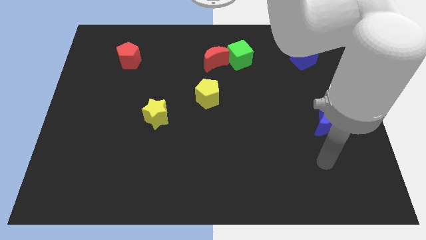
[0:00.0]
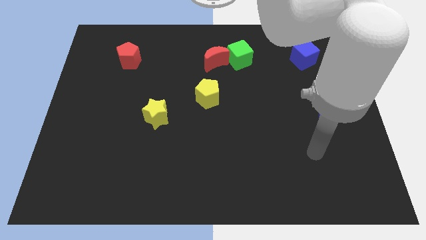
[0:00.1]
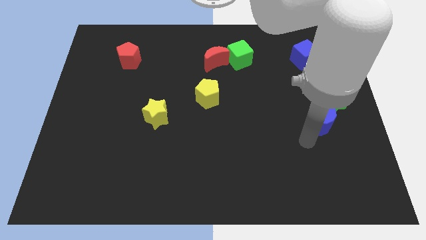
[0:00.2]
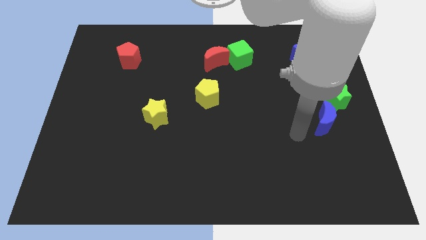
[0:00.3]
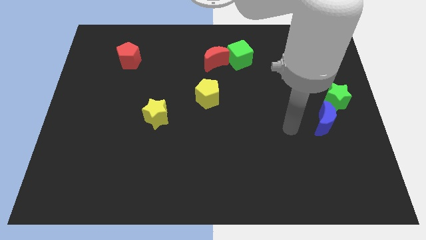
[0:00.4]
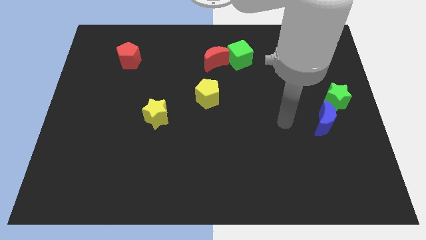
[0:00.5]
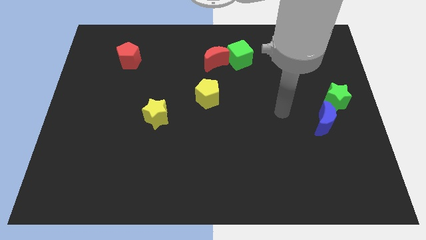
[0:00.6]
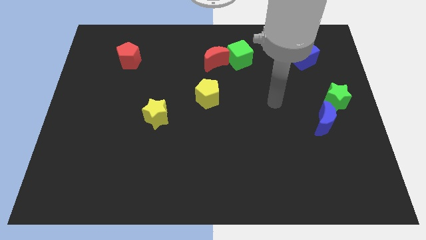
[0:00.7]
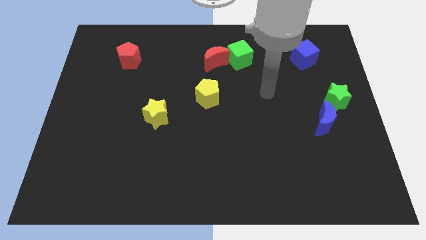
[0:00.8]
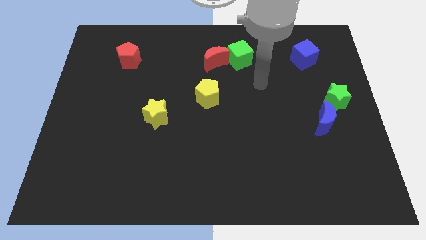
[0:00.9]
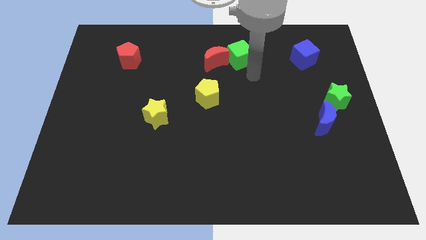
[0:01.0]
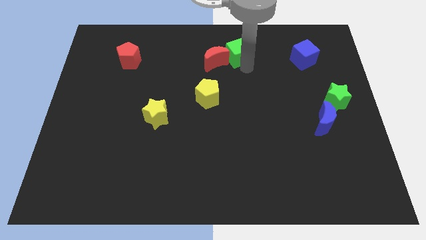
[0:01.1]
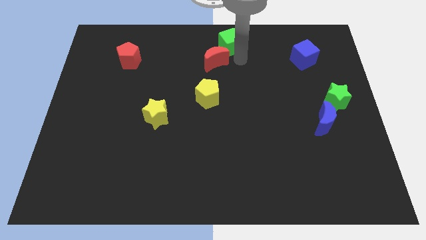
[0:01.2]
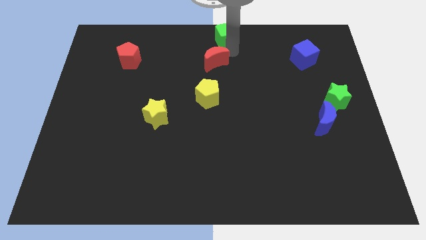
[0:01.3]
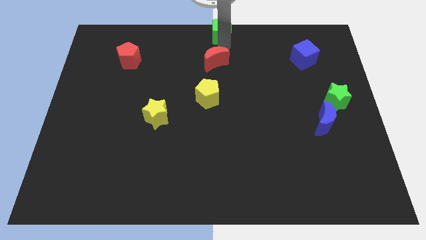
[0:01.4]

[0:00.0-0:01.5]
separate the red moon from the green cube

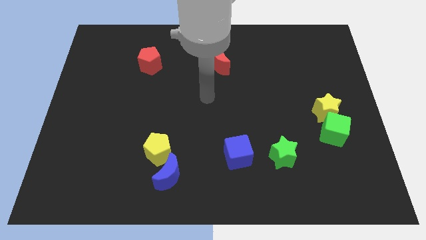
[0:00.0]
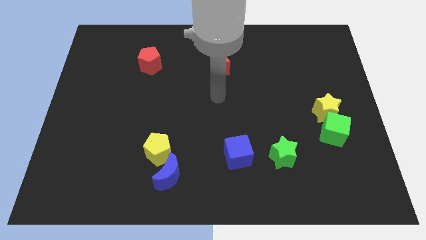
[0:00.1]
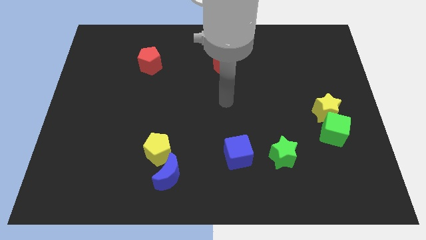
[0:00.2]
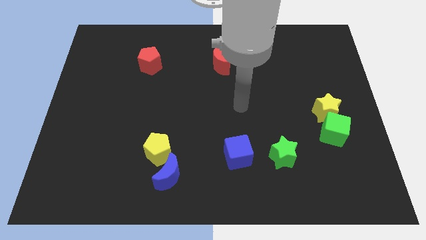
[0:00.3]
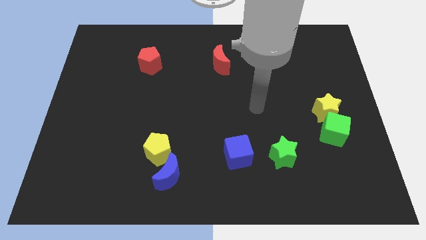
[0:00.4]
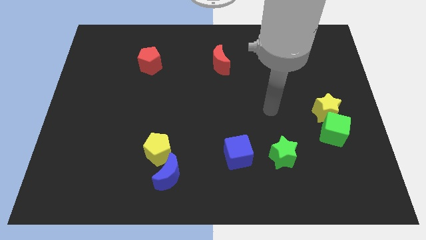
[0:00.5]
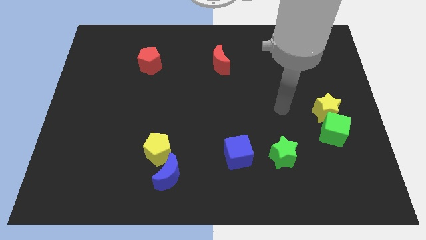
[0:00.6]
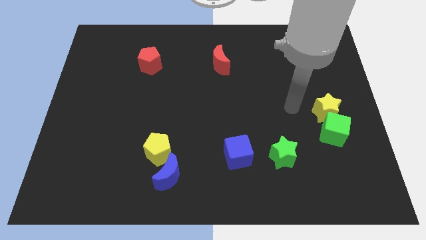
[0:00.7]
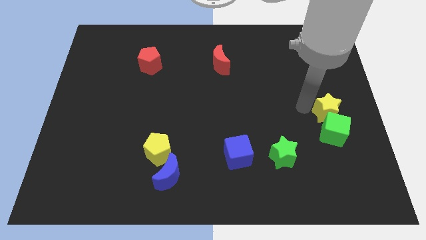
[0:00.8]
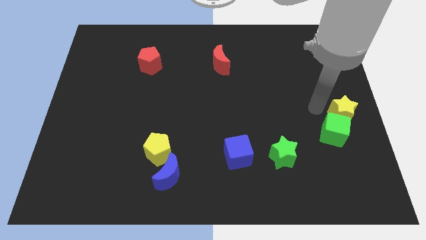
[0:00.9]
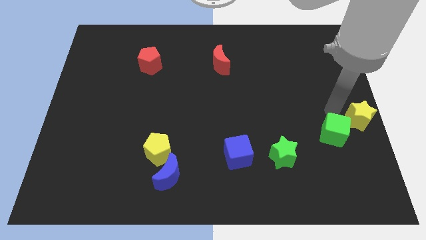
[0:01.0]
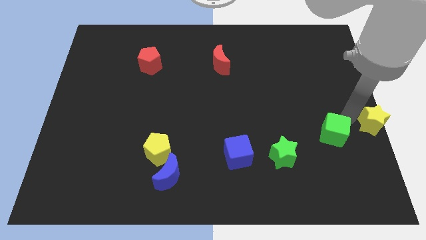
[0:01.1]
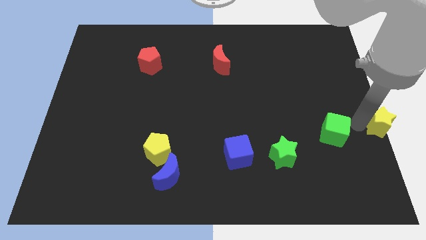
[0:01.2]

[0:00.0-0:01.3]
move the green cube away from the yellow star

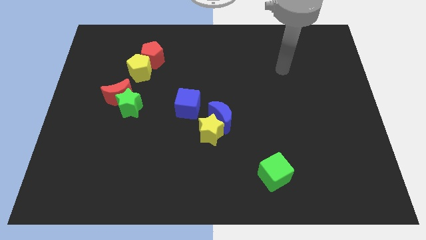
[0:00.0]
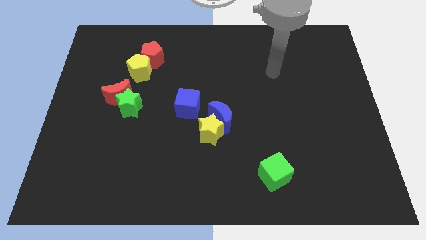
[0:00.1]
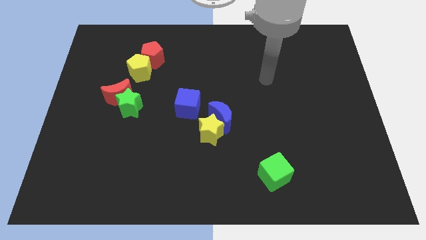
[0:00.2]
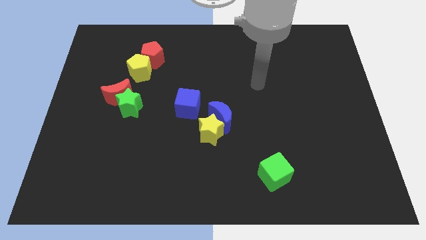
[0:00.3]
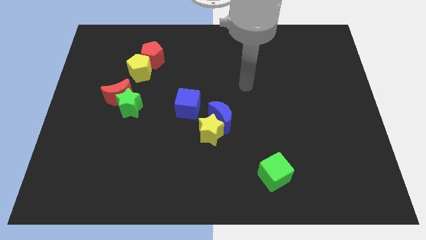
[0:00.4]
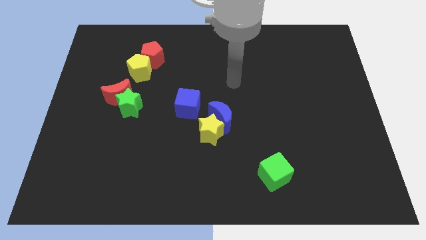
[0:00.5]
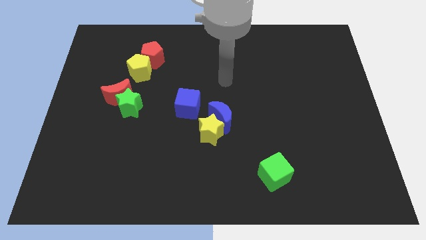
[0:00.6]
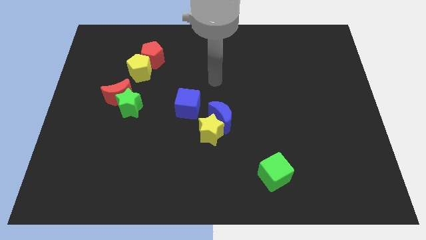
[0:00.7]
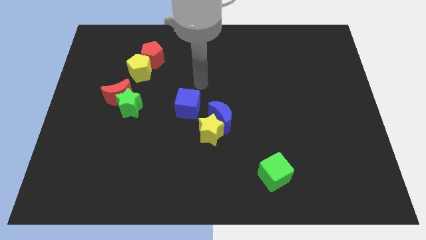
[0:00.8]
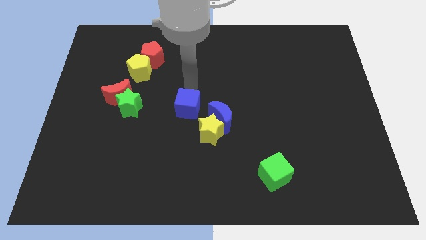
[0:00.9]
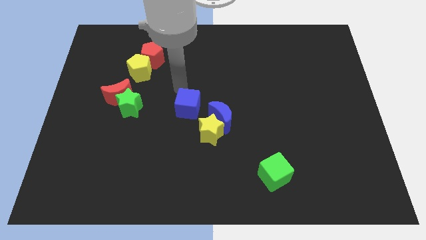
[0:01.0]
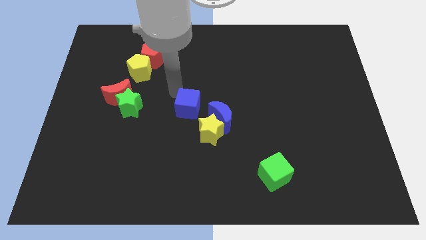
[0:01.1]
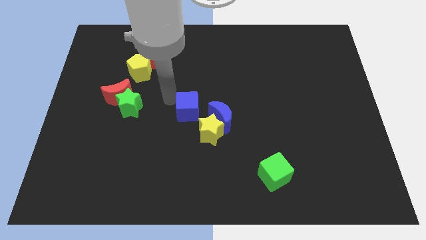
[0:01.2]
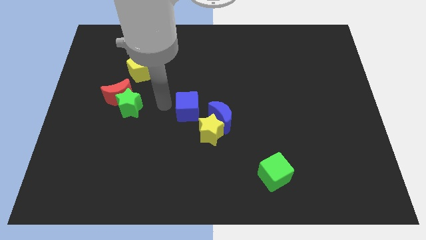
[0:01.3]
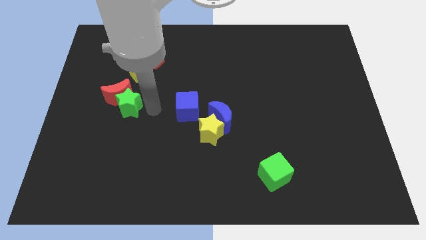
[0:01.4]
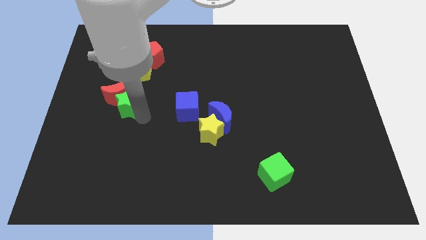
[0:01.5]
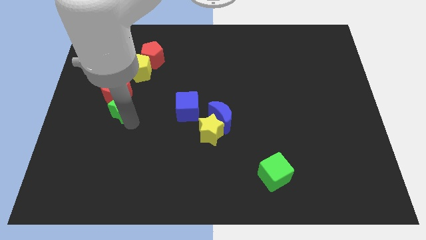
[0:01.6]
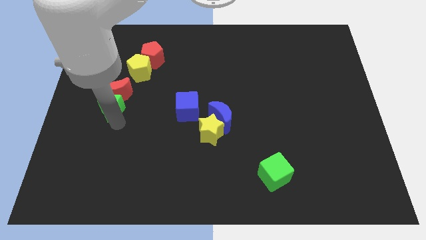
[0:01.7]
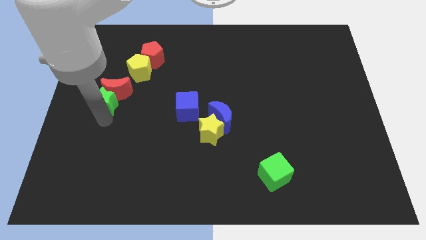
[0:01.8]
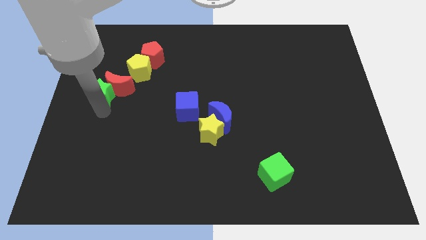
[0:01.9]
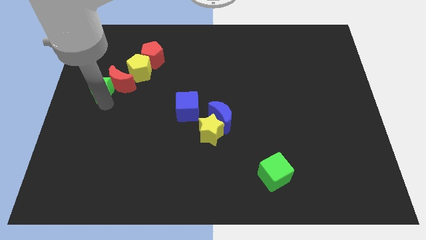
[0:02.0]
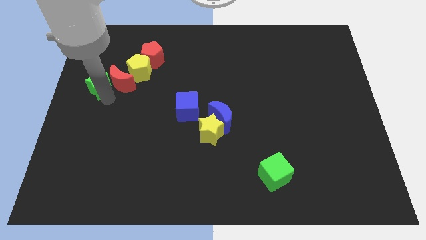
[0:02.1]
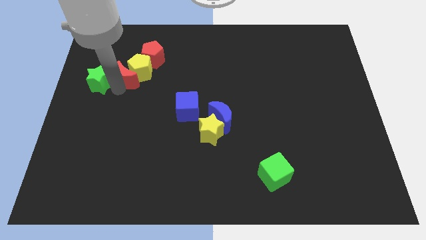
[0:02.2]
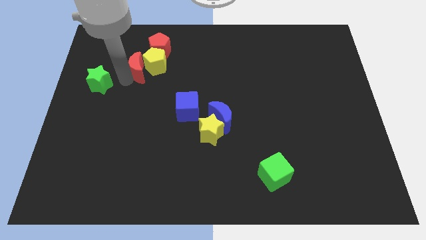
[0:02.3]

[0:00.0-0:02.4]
separate the green star from the red moon

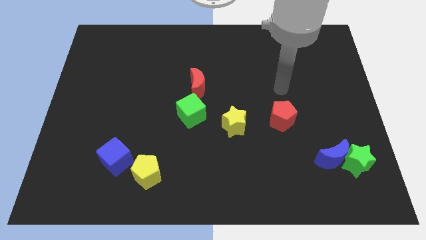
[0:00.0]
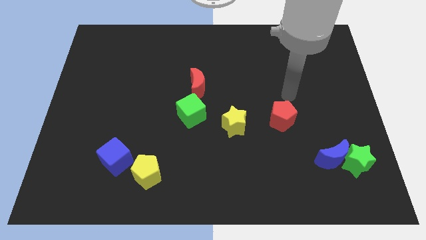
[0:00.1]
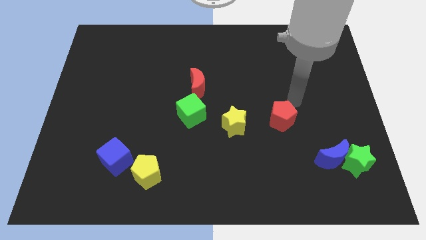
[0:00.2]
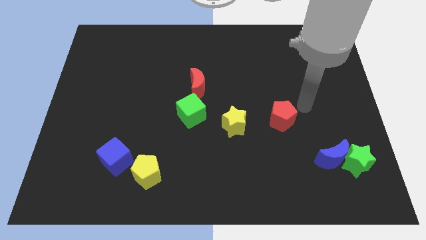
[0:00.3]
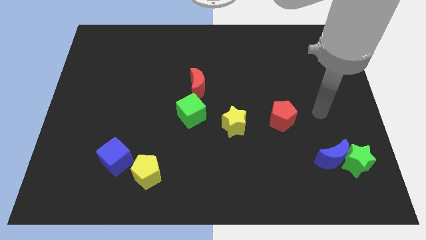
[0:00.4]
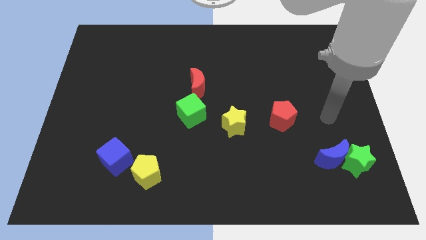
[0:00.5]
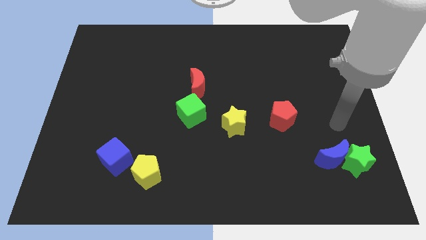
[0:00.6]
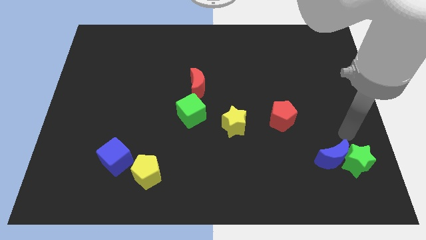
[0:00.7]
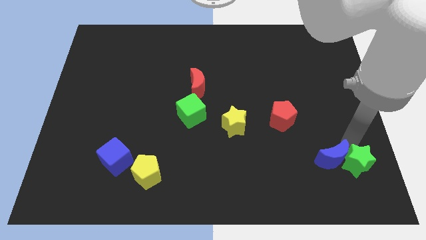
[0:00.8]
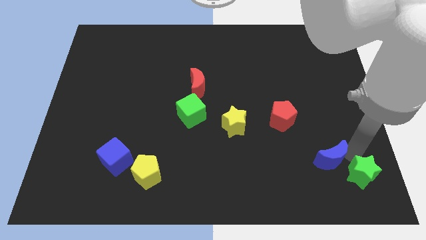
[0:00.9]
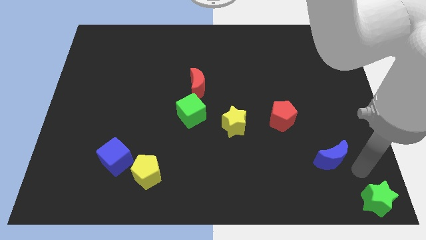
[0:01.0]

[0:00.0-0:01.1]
separate the blue moon from the green star

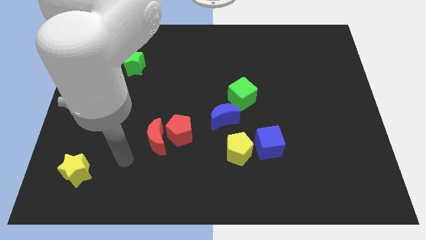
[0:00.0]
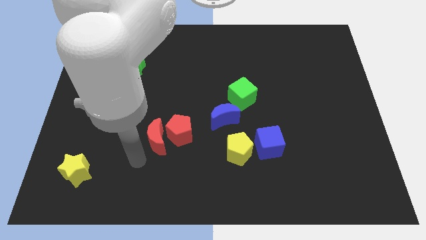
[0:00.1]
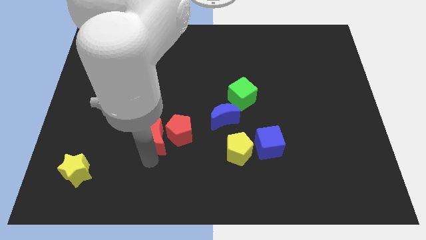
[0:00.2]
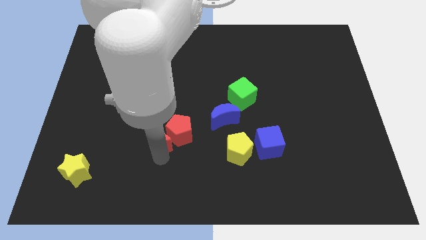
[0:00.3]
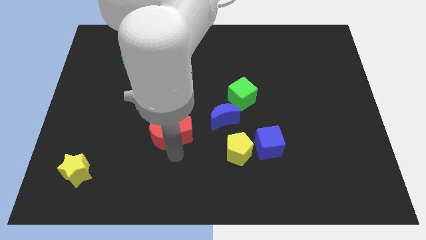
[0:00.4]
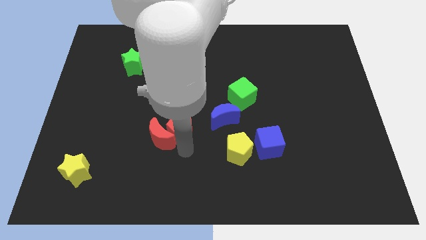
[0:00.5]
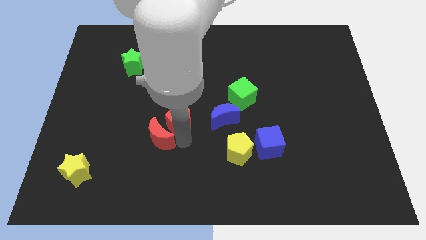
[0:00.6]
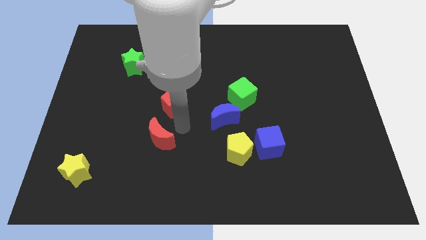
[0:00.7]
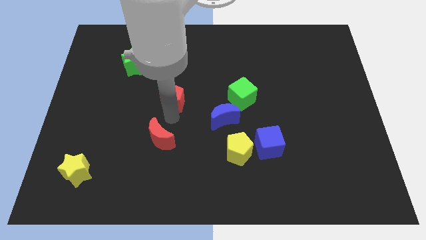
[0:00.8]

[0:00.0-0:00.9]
move the red moon away from the red pentagon

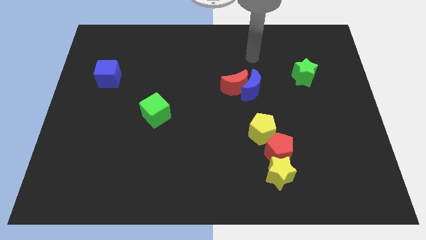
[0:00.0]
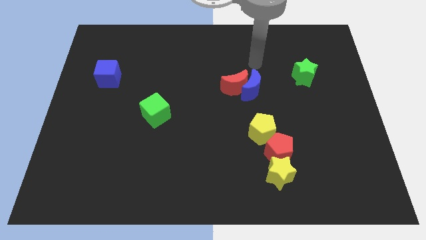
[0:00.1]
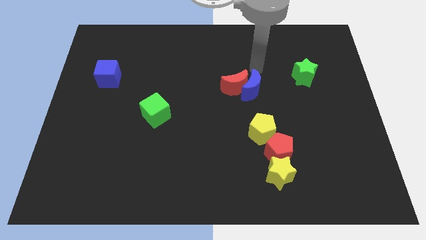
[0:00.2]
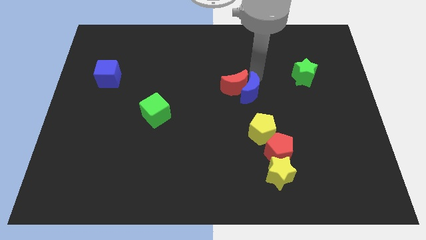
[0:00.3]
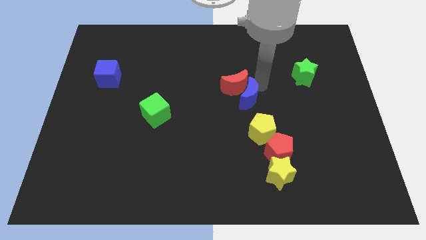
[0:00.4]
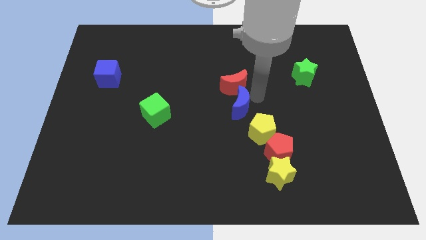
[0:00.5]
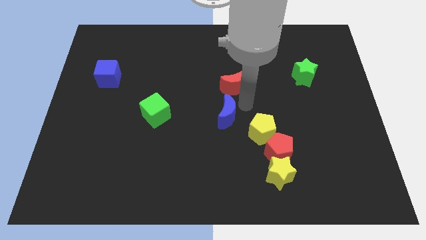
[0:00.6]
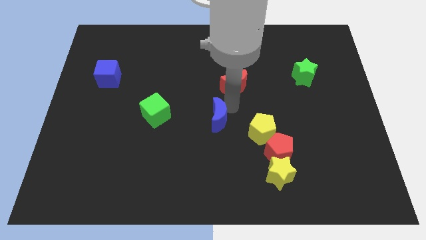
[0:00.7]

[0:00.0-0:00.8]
move the red moon away from the blue moon

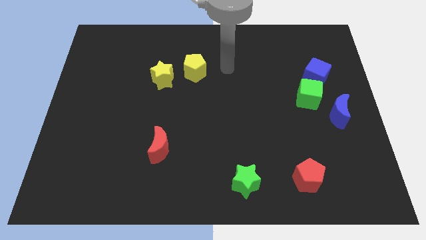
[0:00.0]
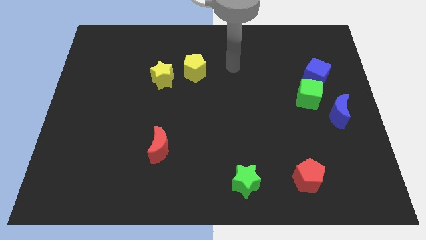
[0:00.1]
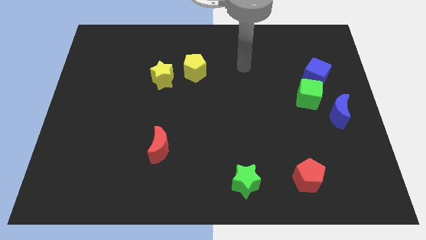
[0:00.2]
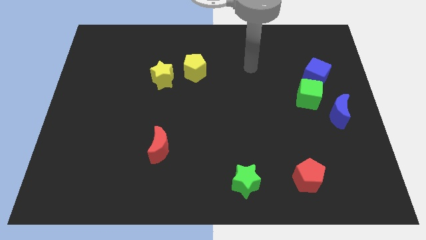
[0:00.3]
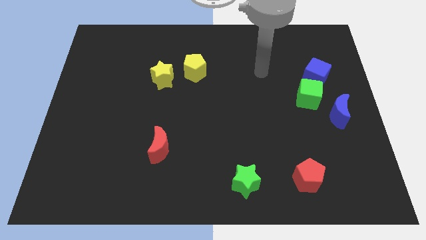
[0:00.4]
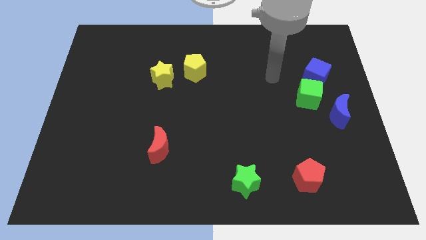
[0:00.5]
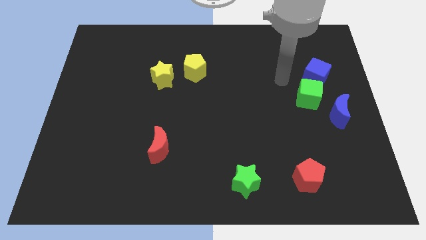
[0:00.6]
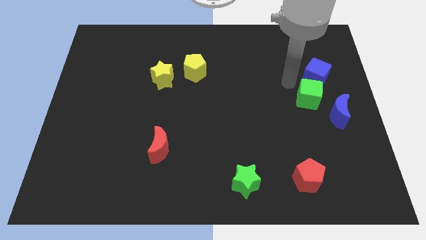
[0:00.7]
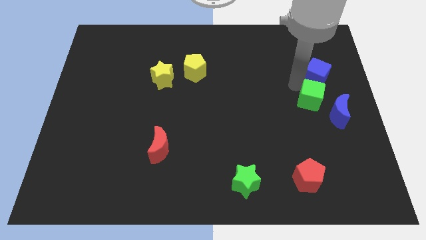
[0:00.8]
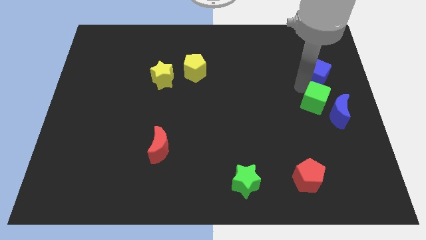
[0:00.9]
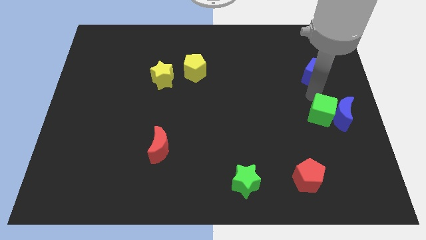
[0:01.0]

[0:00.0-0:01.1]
pull the blue cube apart from the green cube

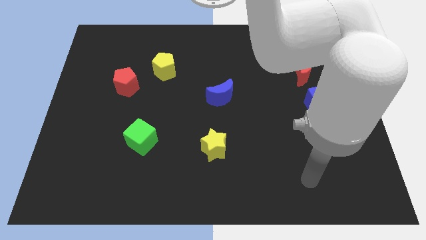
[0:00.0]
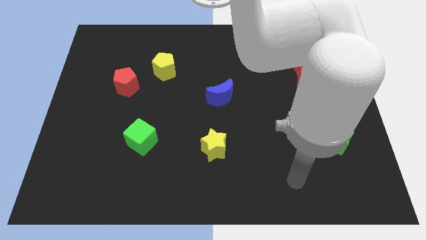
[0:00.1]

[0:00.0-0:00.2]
pull the red pentagon apart from the yellow pentagon
